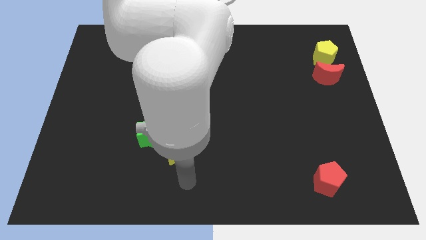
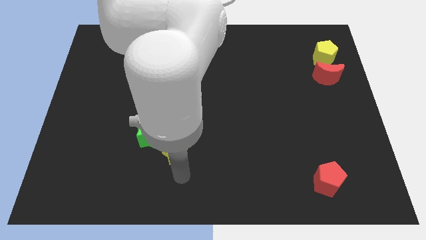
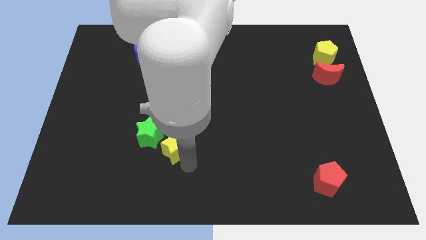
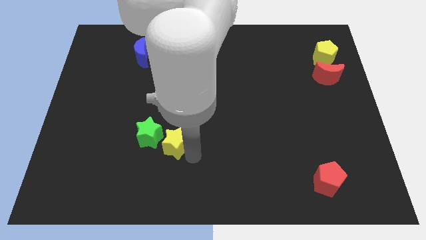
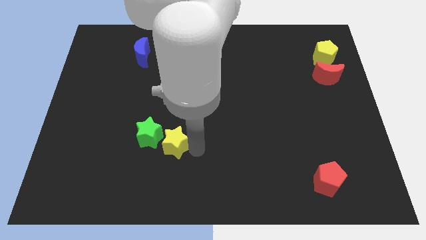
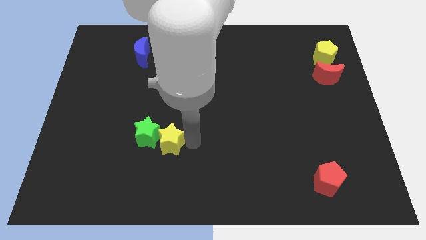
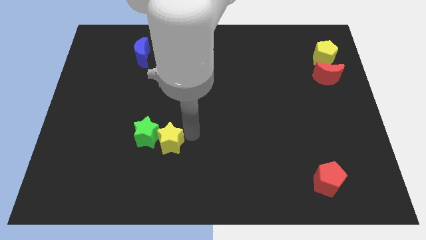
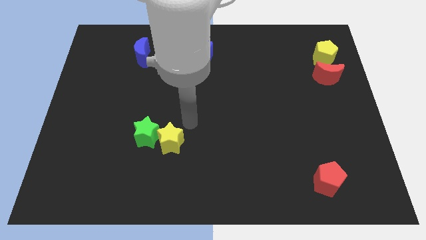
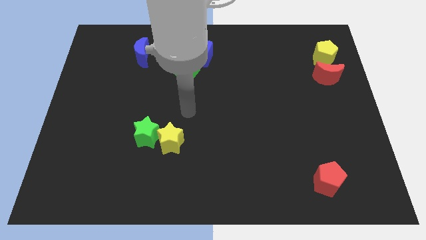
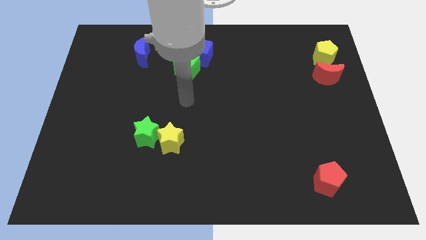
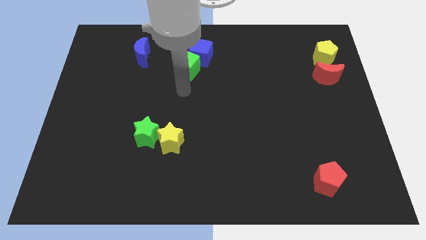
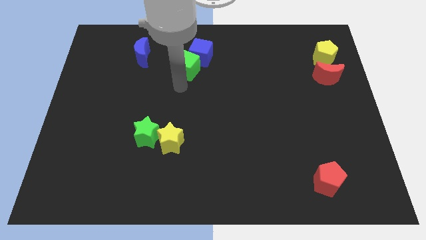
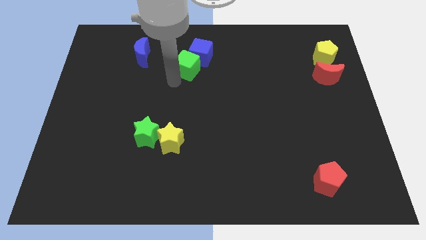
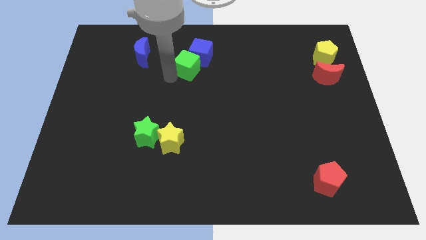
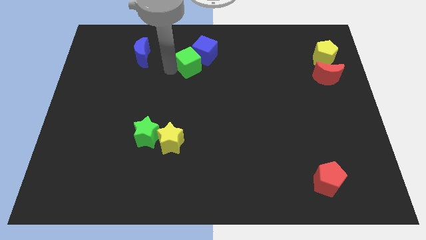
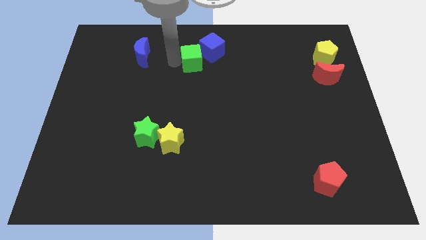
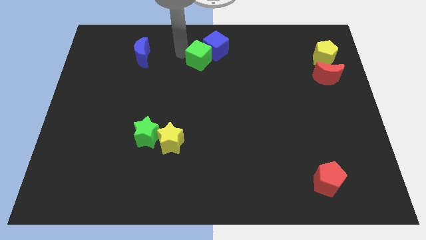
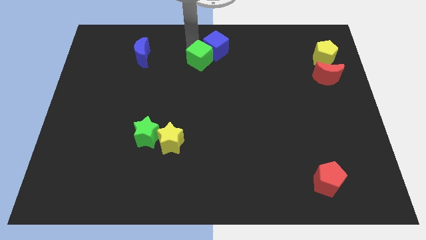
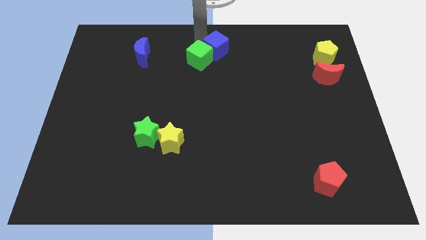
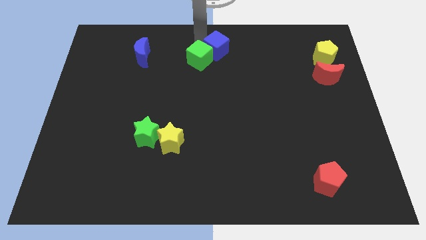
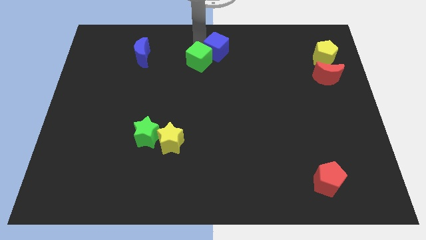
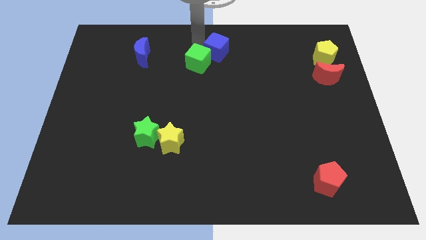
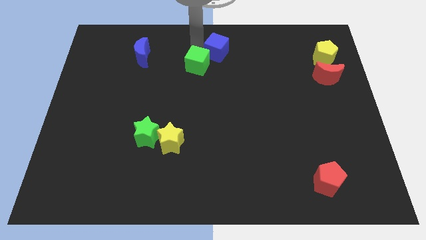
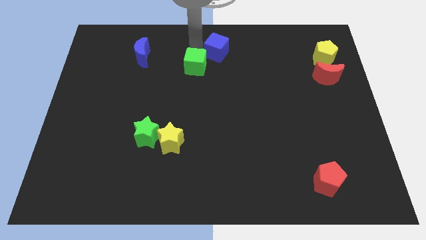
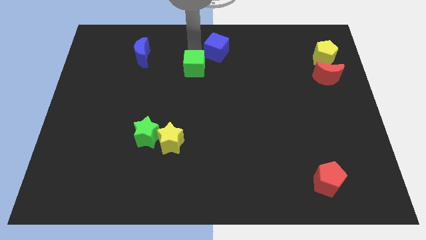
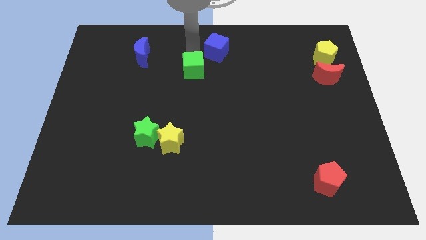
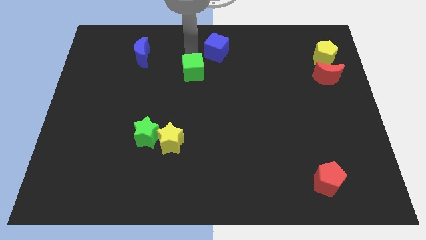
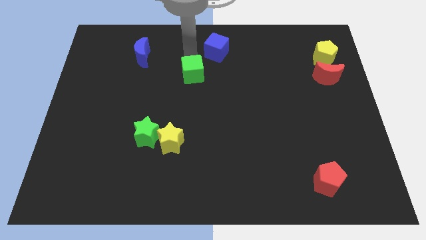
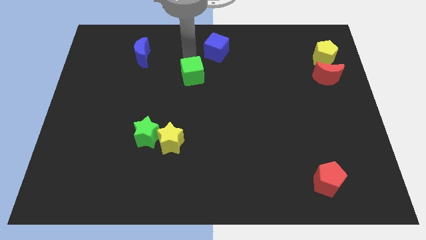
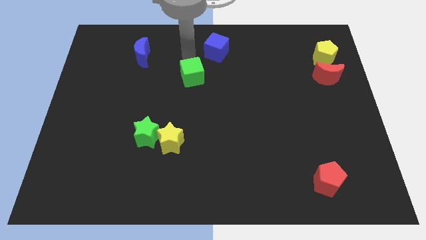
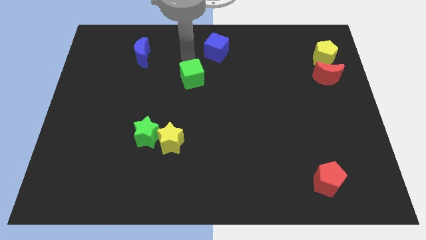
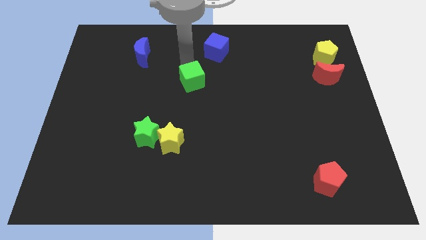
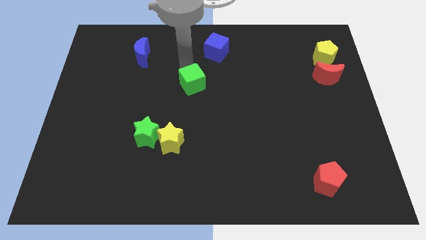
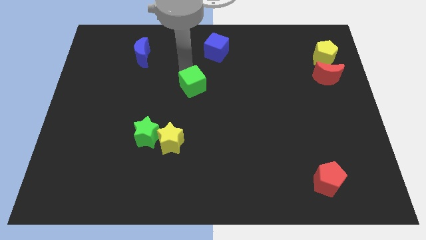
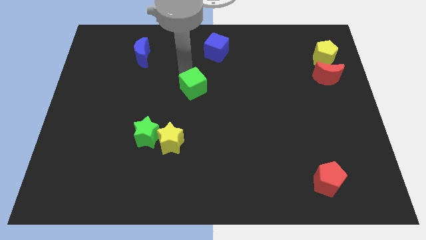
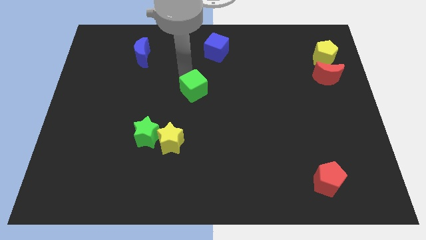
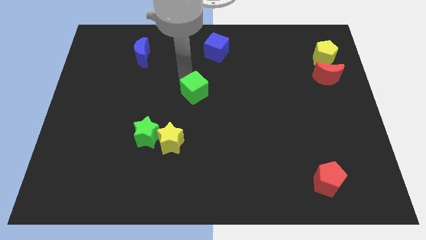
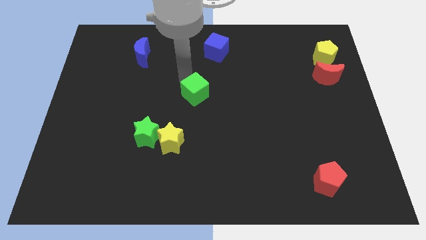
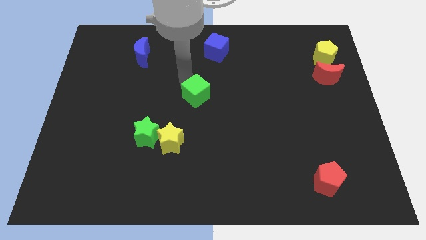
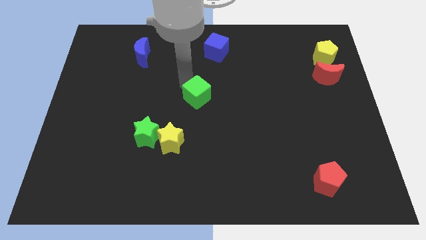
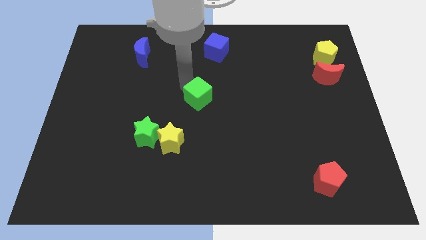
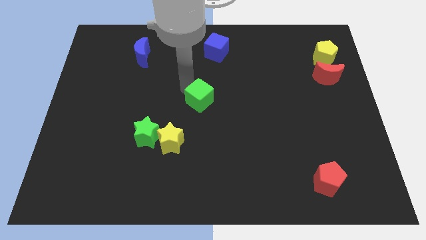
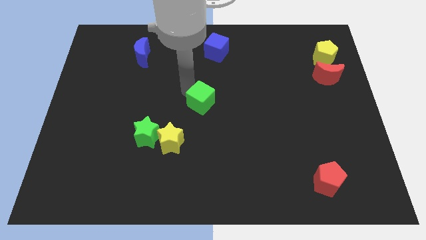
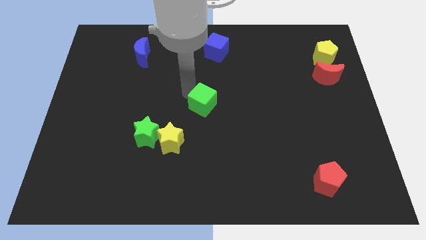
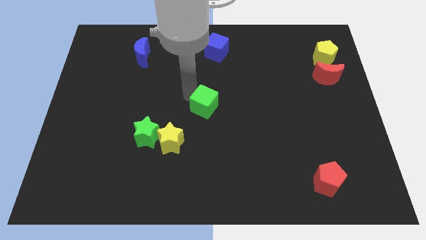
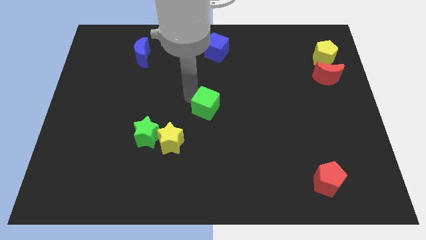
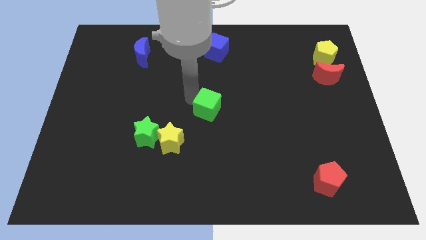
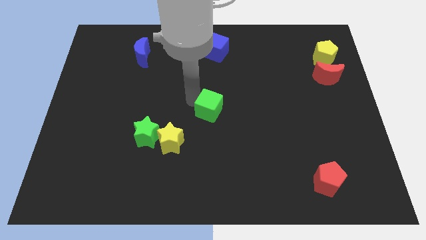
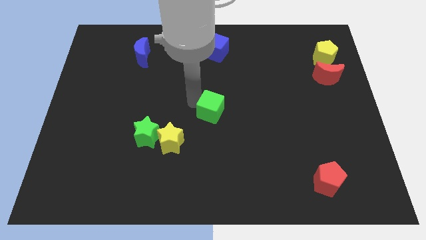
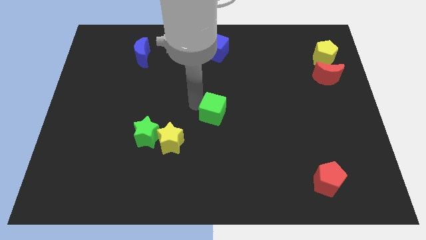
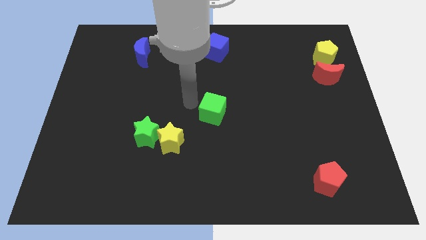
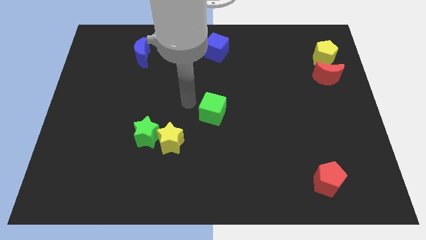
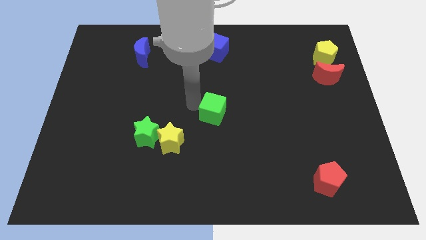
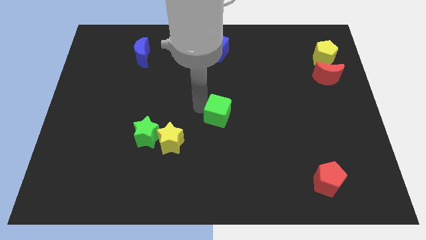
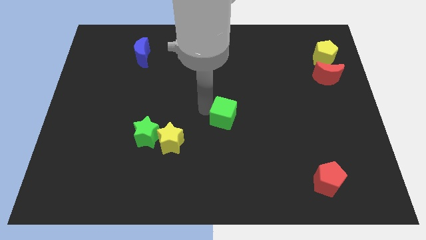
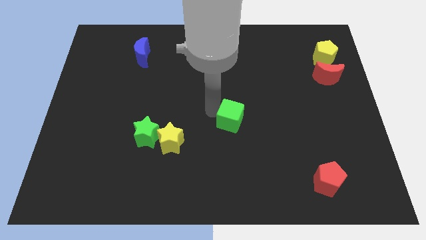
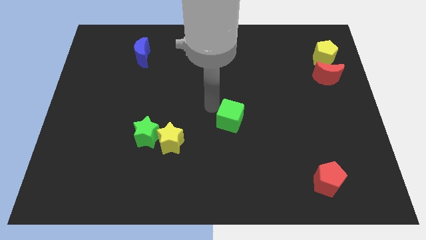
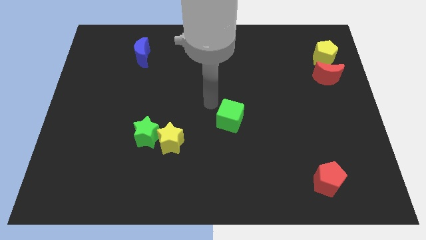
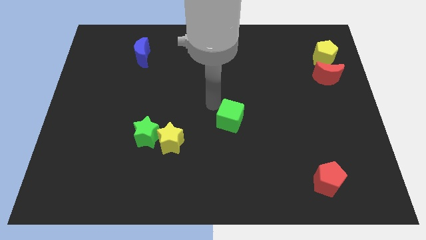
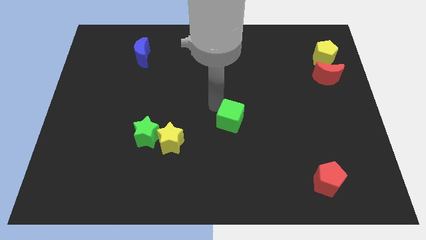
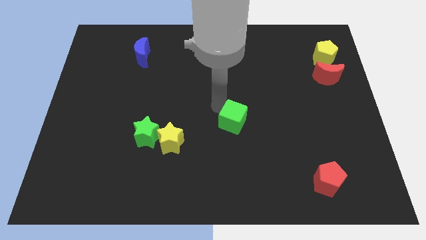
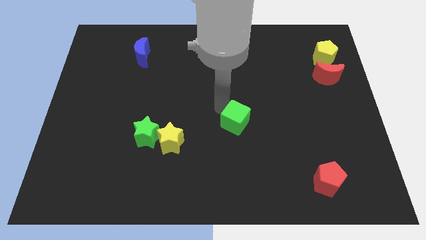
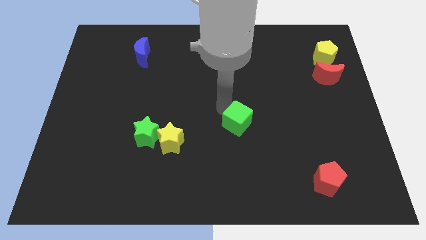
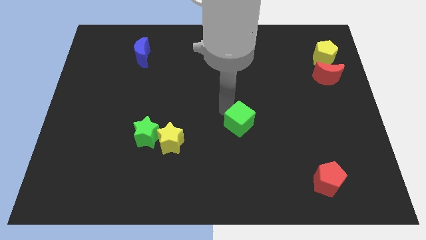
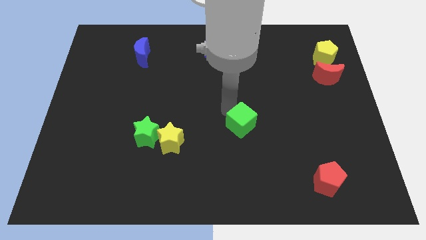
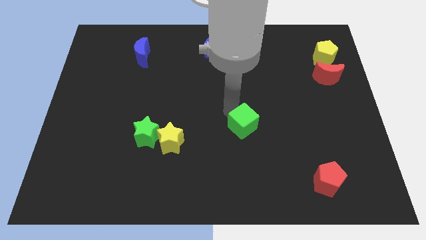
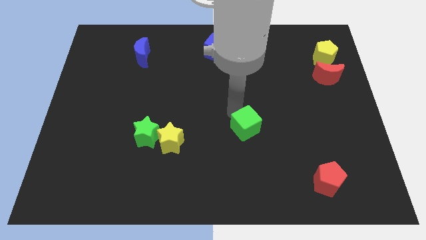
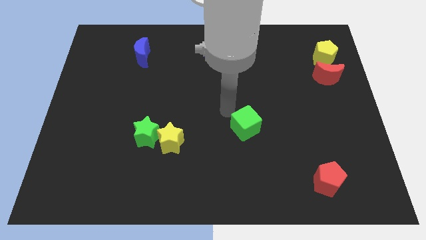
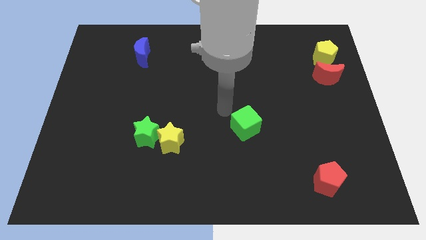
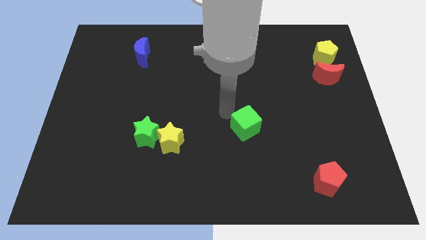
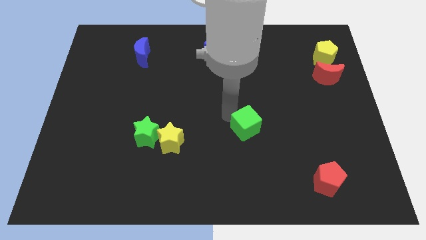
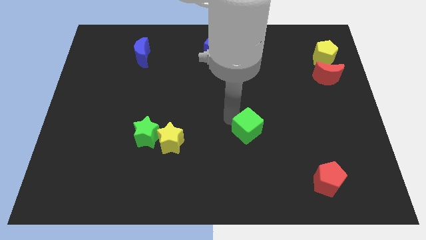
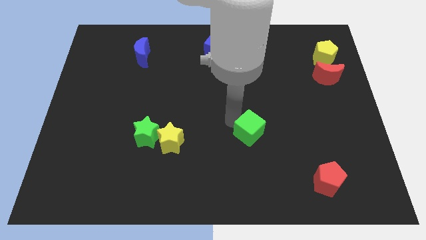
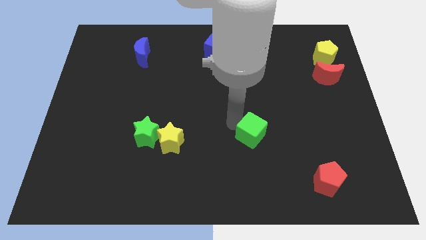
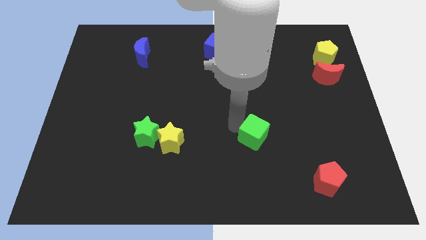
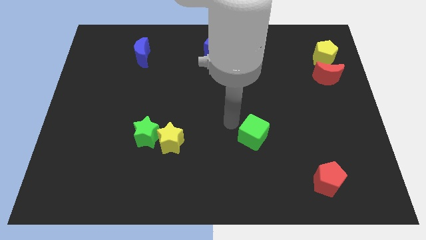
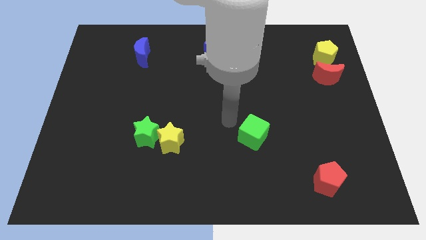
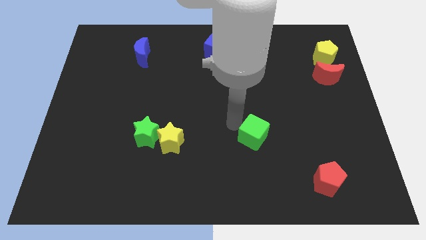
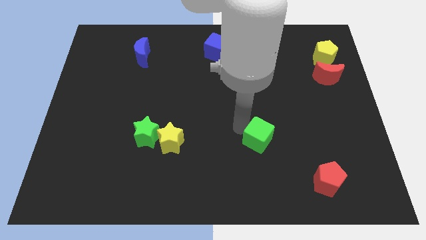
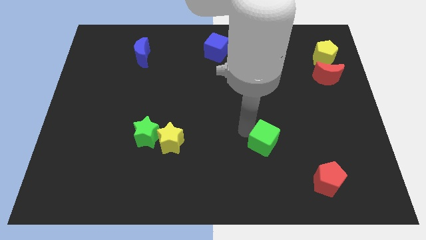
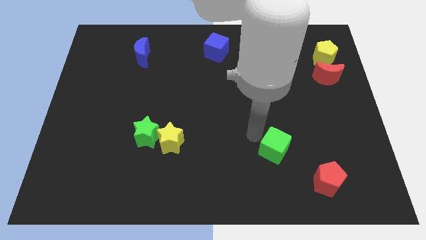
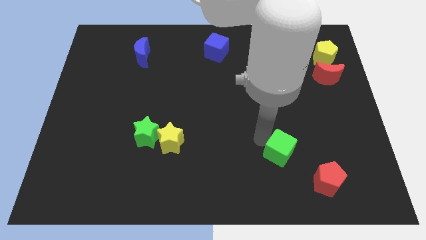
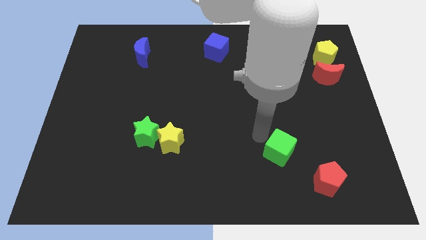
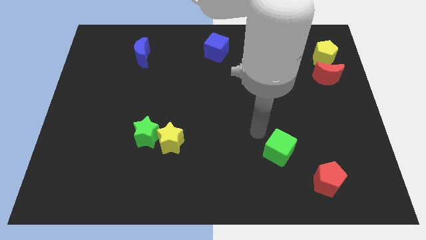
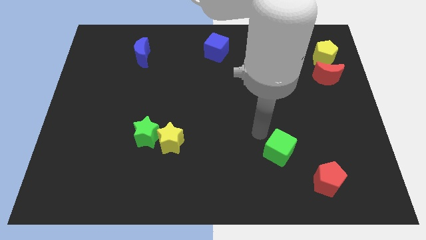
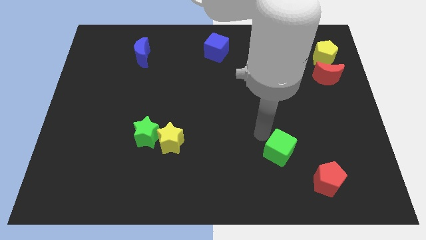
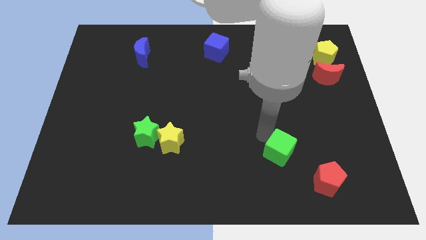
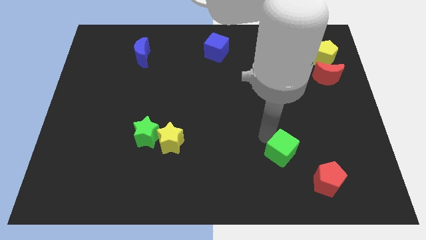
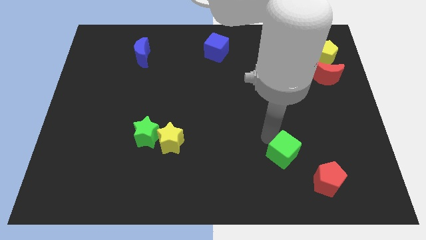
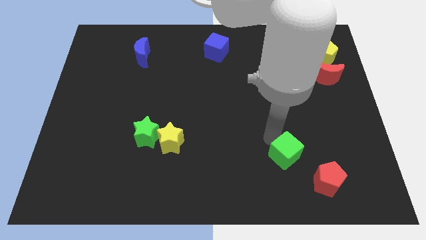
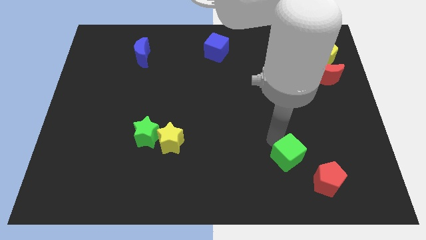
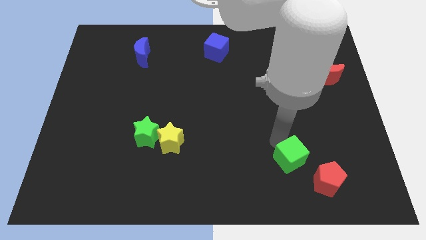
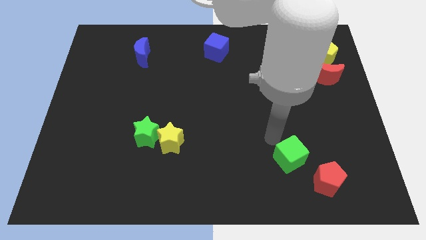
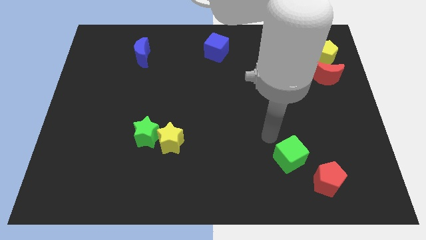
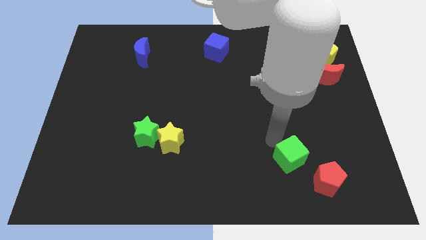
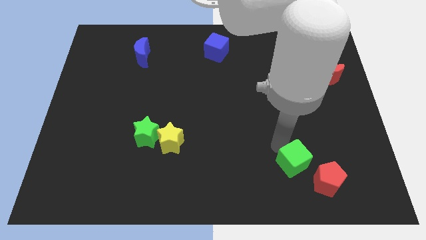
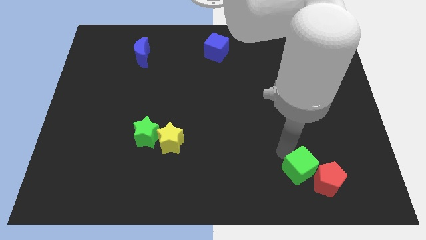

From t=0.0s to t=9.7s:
push the green cube next to the red pentagon
